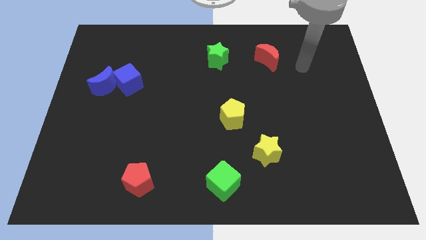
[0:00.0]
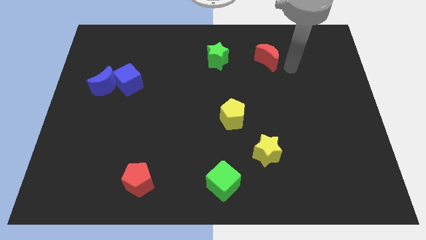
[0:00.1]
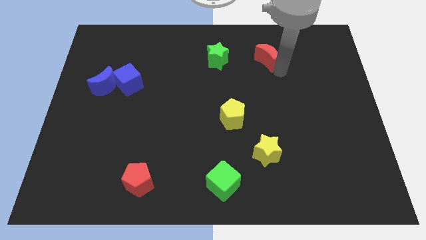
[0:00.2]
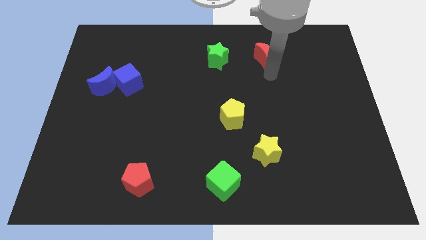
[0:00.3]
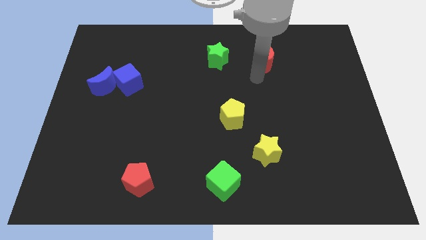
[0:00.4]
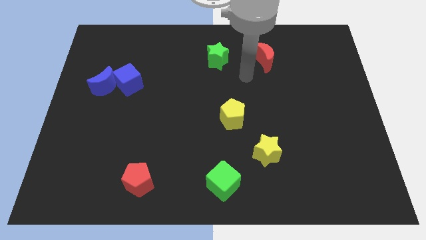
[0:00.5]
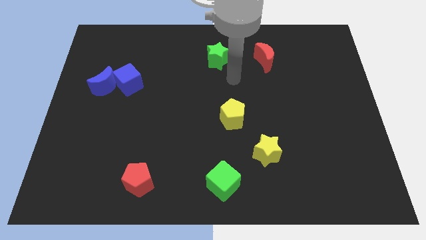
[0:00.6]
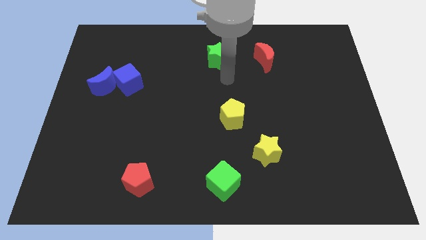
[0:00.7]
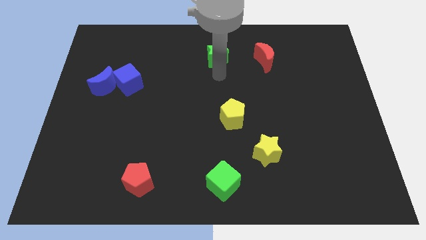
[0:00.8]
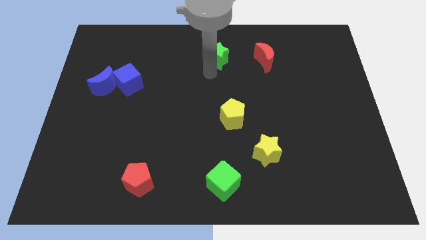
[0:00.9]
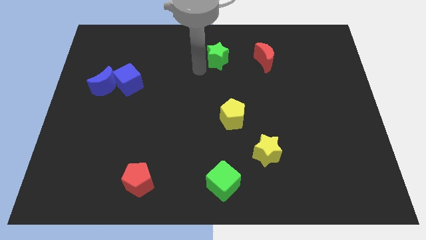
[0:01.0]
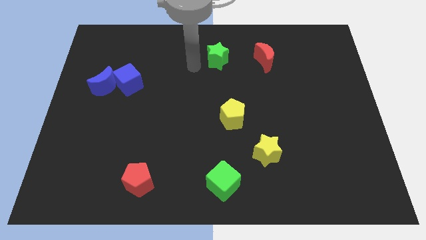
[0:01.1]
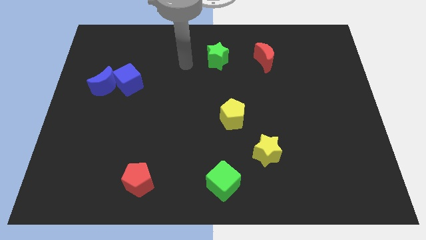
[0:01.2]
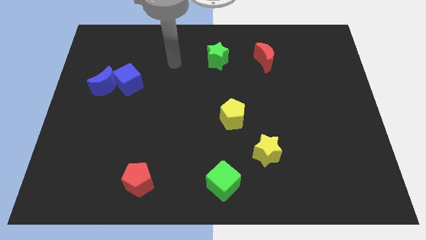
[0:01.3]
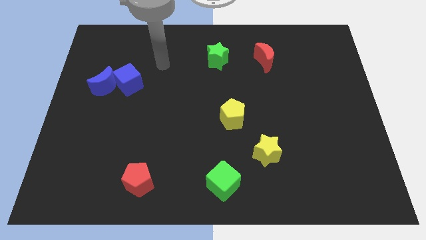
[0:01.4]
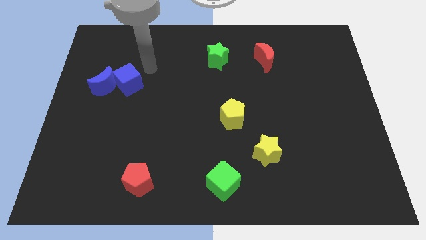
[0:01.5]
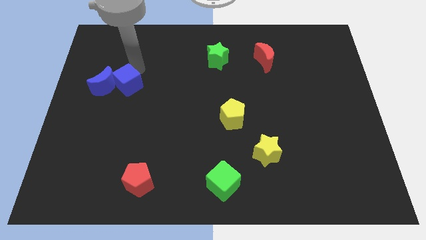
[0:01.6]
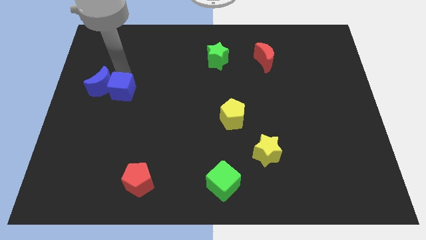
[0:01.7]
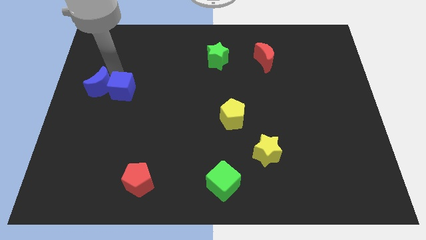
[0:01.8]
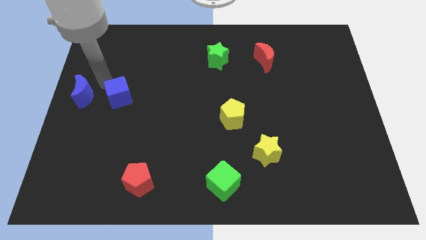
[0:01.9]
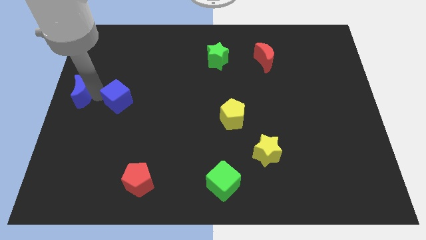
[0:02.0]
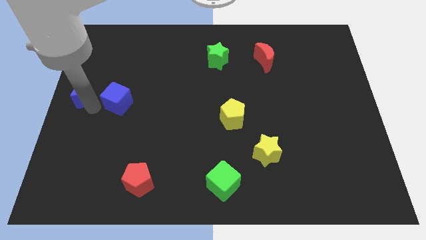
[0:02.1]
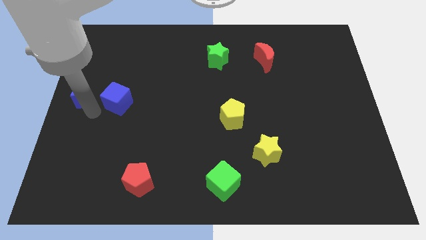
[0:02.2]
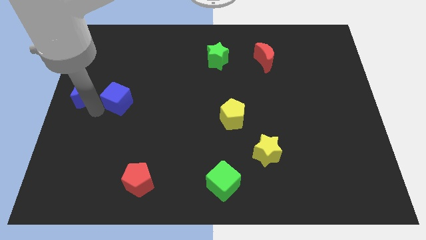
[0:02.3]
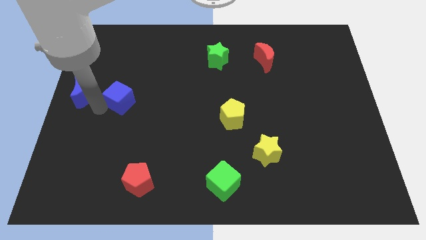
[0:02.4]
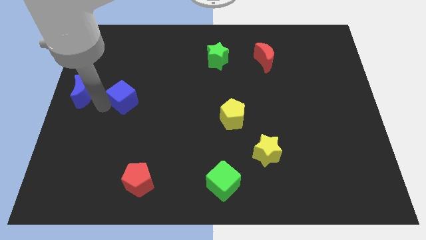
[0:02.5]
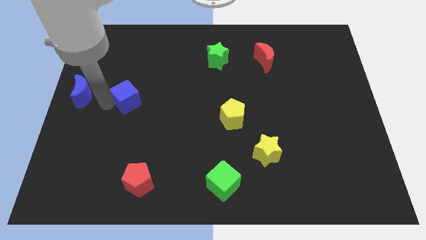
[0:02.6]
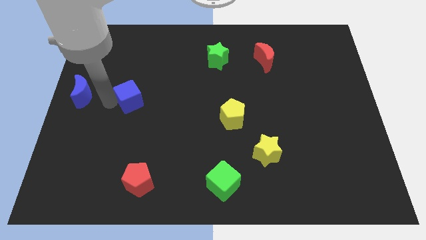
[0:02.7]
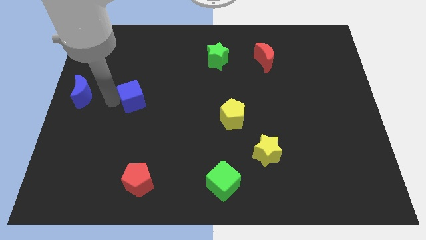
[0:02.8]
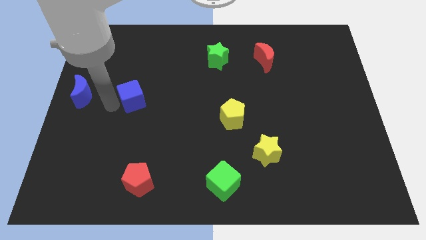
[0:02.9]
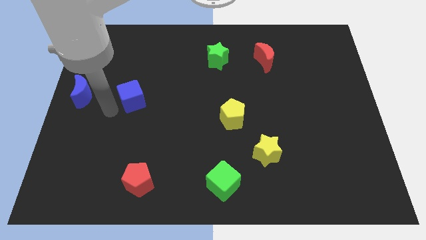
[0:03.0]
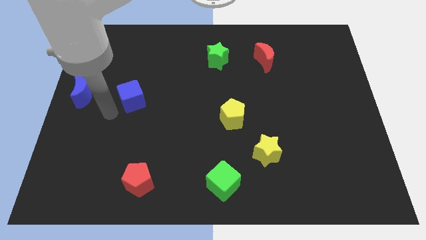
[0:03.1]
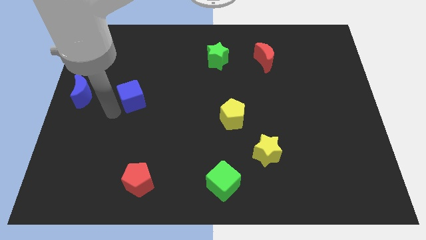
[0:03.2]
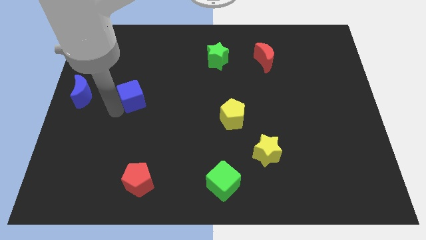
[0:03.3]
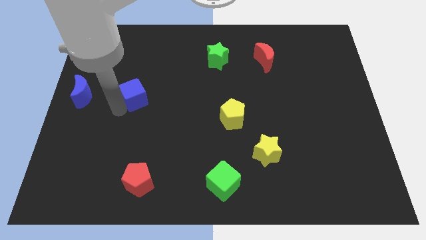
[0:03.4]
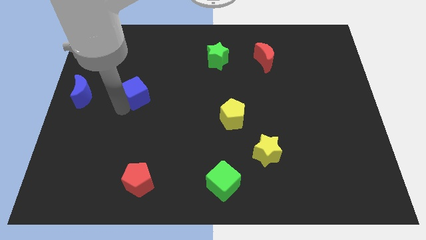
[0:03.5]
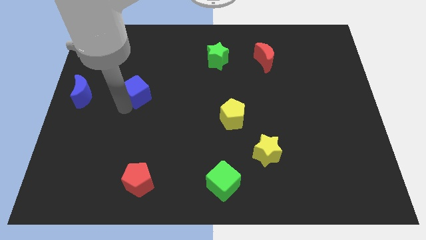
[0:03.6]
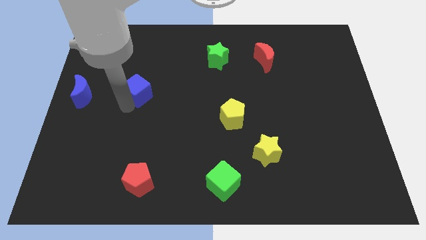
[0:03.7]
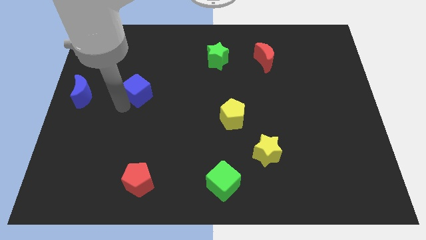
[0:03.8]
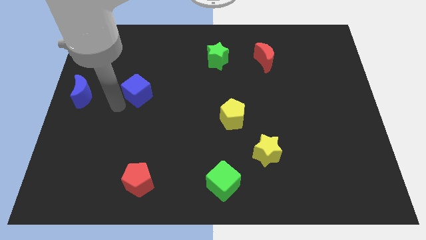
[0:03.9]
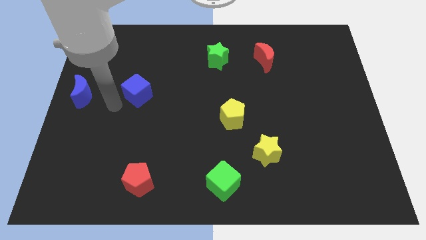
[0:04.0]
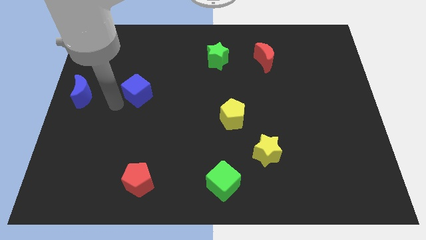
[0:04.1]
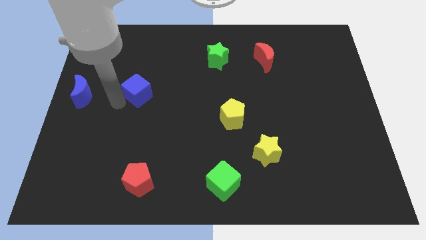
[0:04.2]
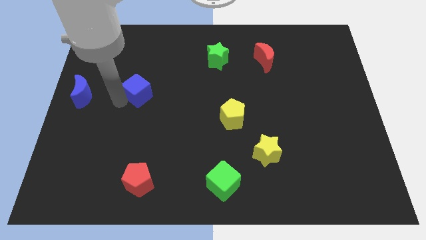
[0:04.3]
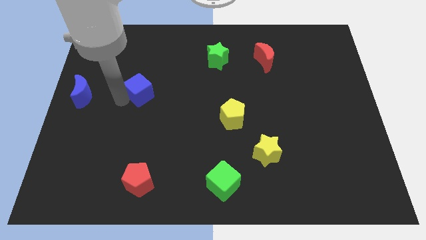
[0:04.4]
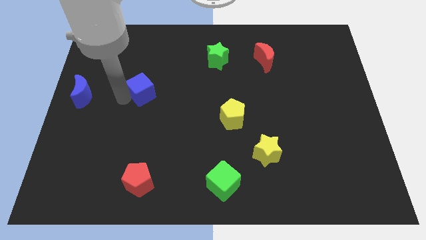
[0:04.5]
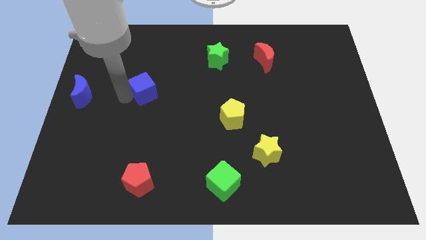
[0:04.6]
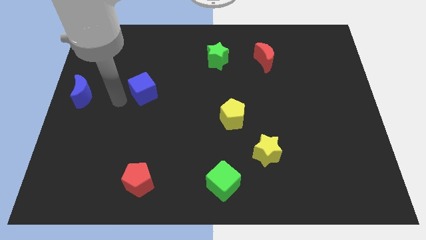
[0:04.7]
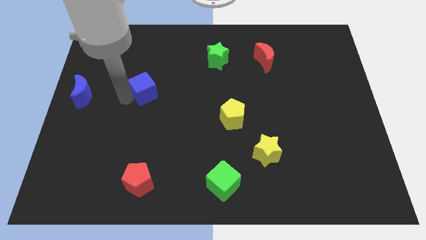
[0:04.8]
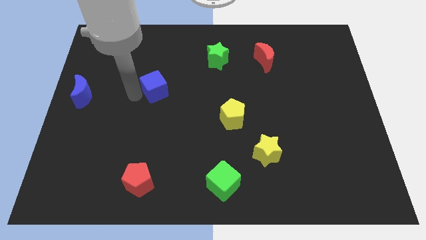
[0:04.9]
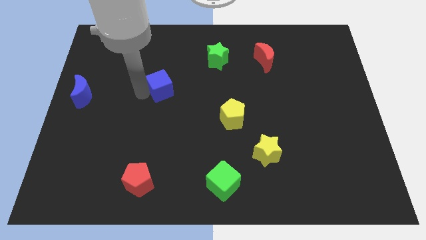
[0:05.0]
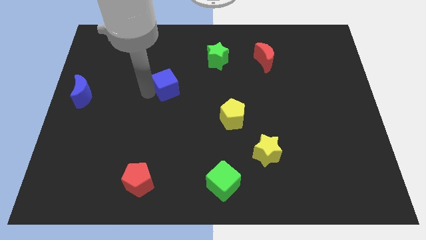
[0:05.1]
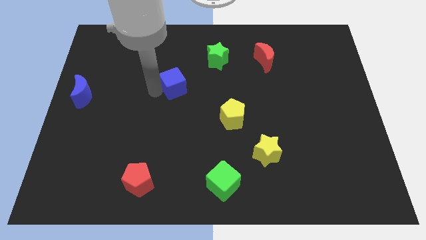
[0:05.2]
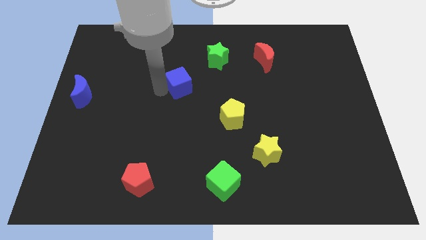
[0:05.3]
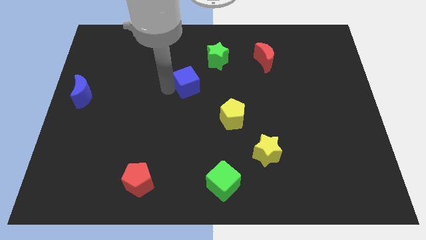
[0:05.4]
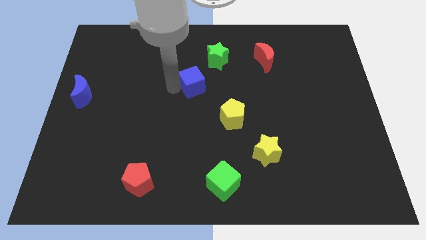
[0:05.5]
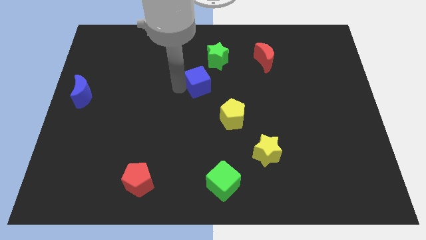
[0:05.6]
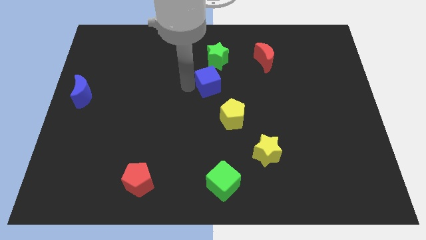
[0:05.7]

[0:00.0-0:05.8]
slide the blue cube to the right

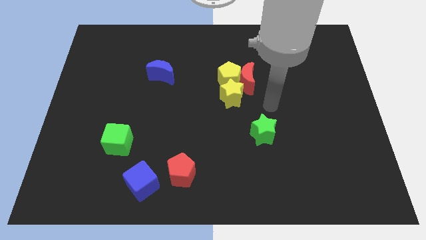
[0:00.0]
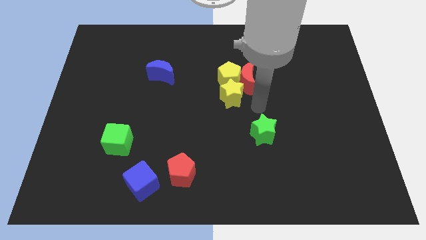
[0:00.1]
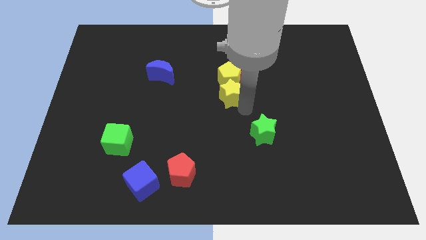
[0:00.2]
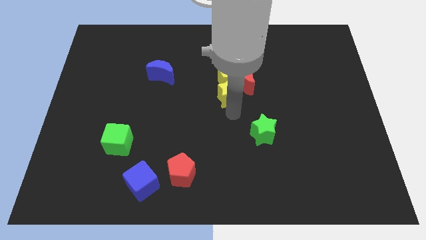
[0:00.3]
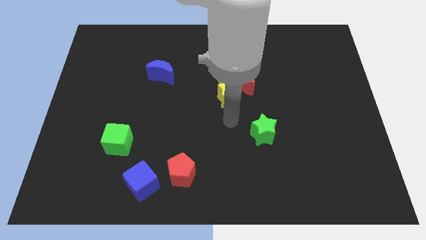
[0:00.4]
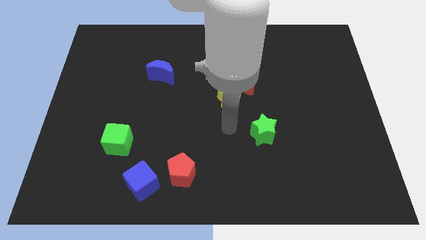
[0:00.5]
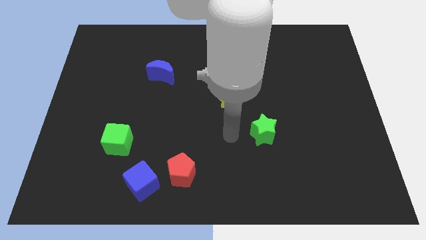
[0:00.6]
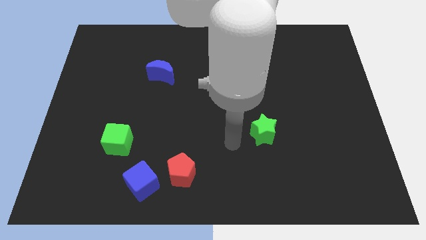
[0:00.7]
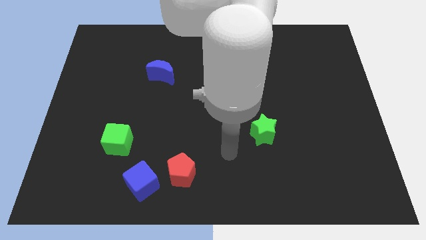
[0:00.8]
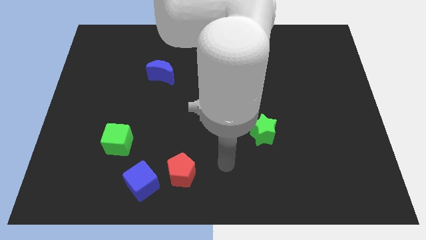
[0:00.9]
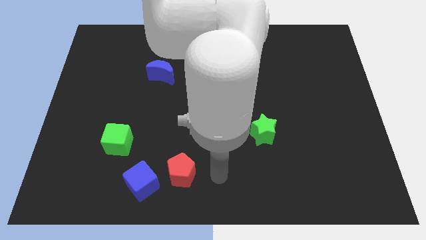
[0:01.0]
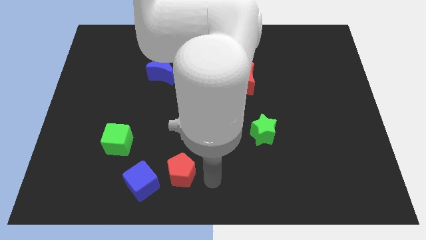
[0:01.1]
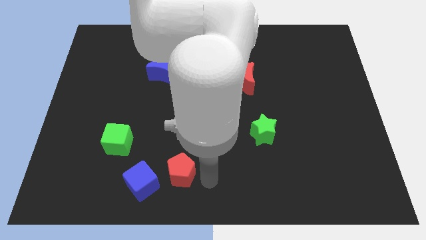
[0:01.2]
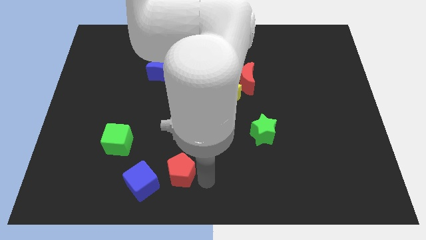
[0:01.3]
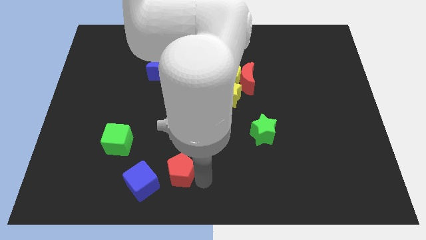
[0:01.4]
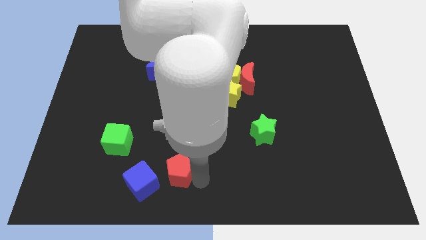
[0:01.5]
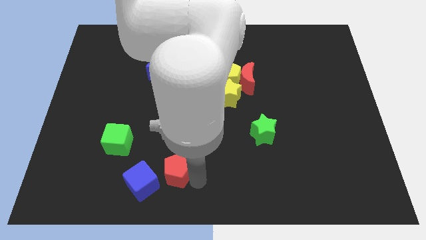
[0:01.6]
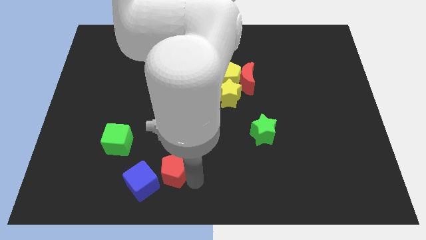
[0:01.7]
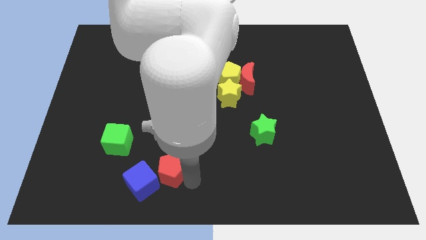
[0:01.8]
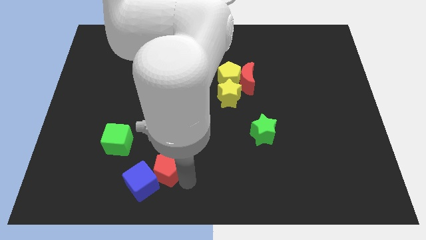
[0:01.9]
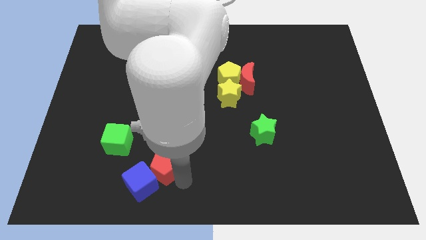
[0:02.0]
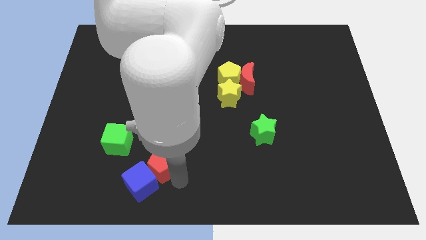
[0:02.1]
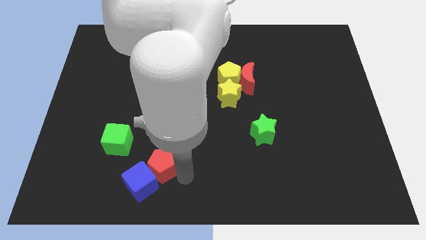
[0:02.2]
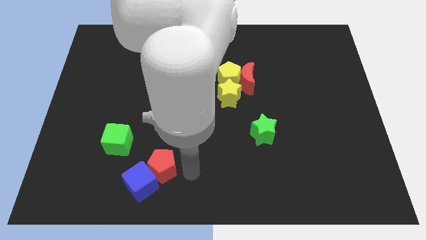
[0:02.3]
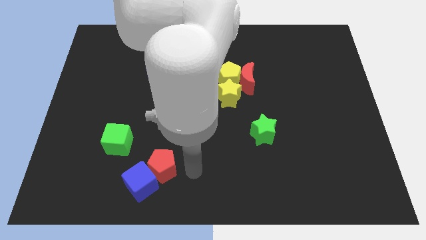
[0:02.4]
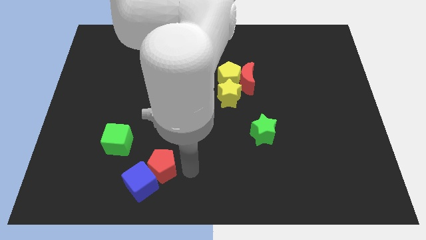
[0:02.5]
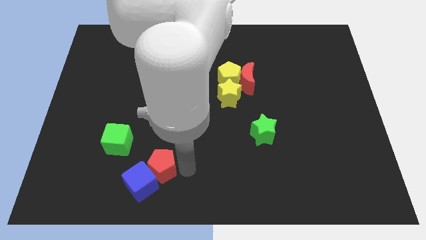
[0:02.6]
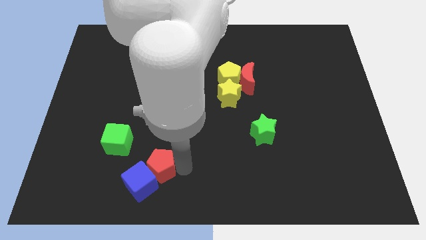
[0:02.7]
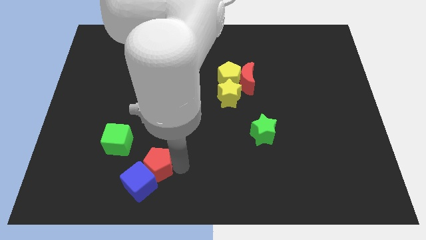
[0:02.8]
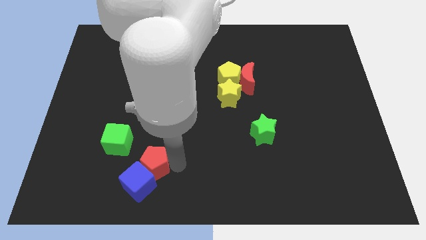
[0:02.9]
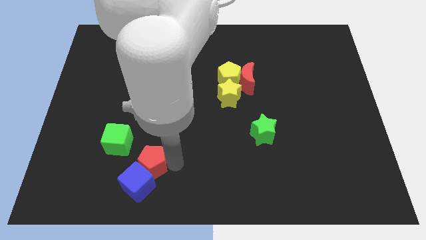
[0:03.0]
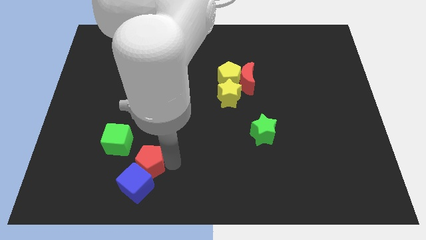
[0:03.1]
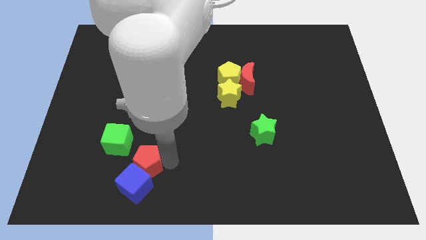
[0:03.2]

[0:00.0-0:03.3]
push the red pentagon somewhat to the left
